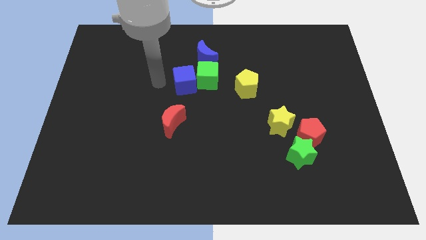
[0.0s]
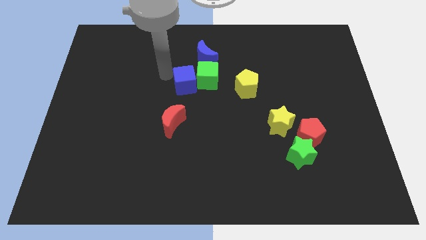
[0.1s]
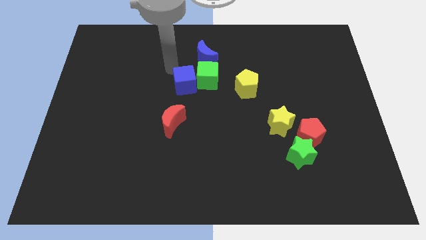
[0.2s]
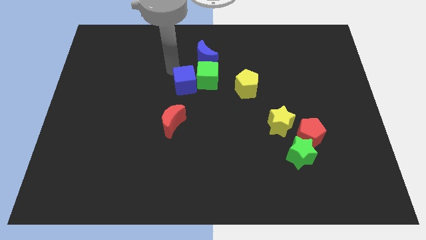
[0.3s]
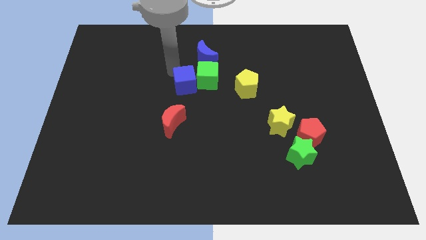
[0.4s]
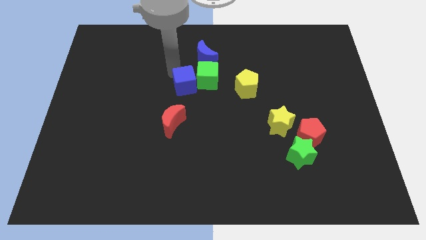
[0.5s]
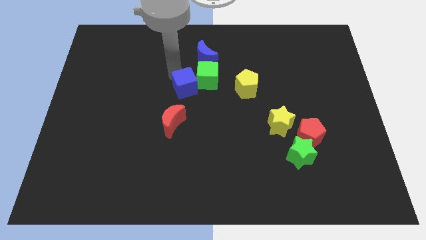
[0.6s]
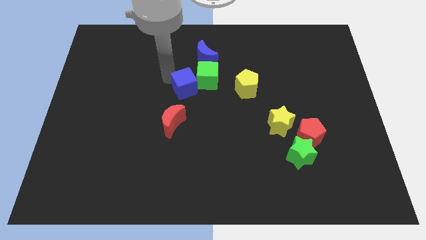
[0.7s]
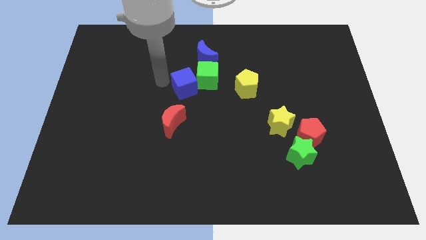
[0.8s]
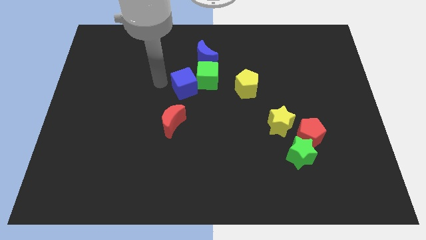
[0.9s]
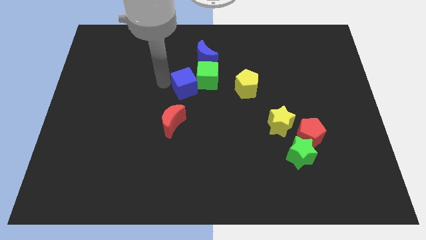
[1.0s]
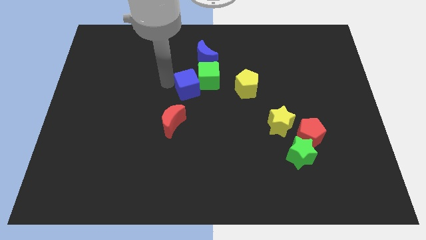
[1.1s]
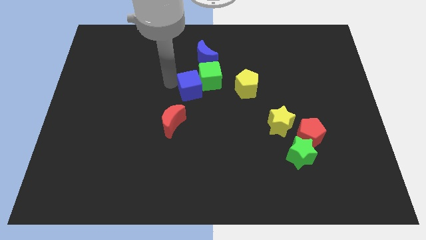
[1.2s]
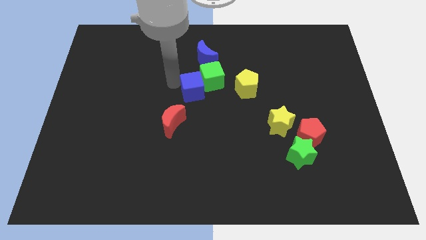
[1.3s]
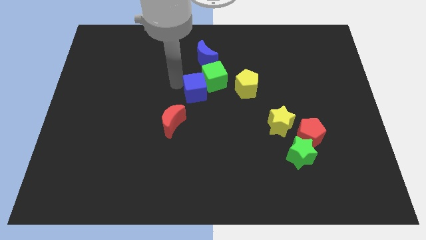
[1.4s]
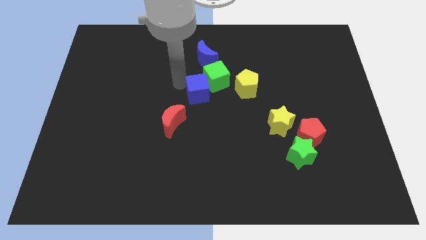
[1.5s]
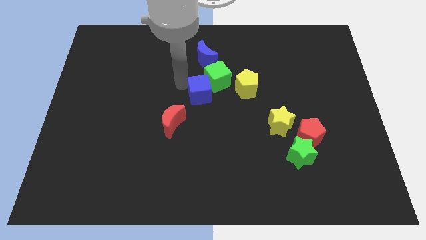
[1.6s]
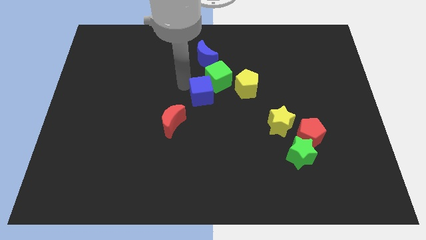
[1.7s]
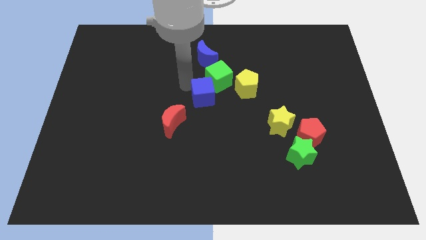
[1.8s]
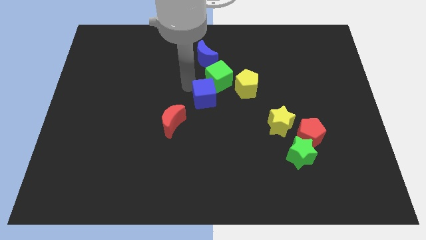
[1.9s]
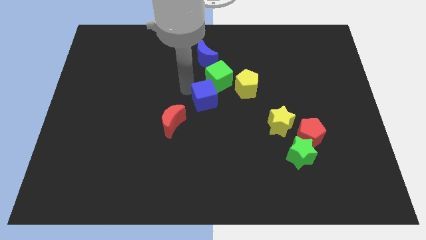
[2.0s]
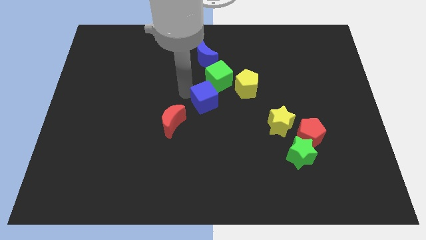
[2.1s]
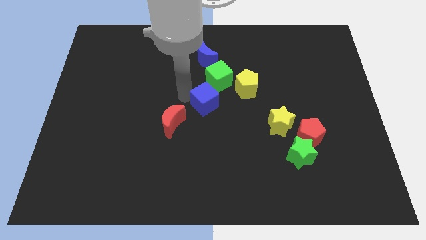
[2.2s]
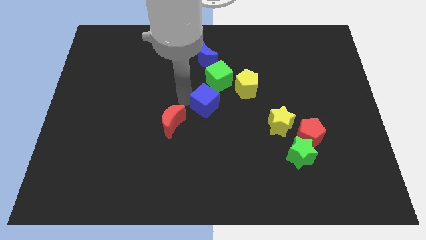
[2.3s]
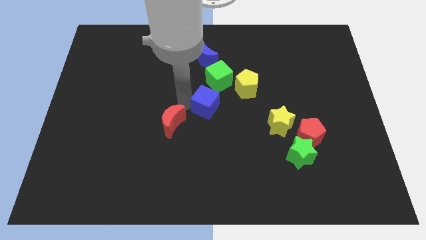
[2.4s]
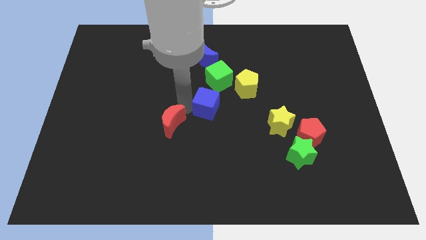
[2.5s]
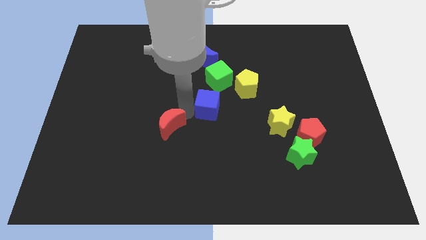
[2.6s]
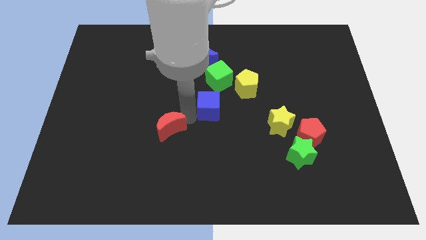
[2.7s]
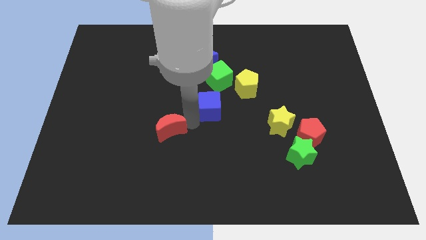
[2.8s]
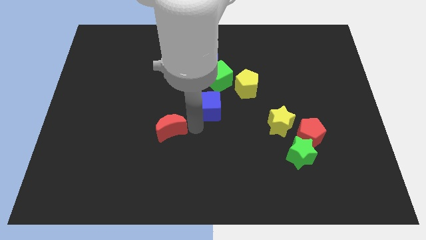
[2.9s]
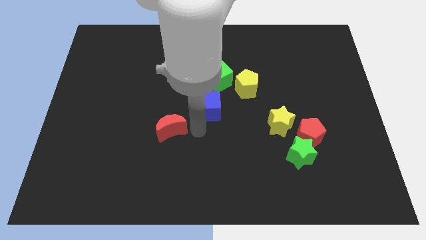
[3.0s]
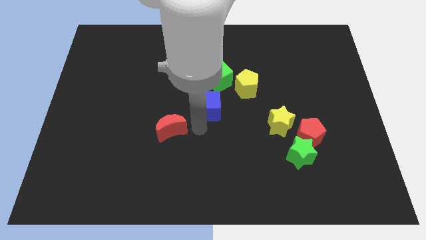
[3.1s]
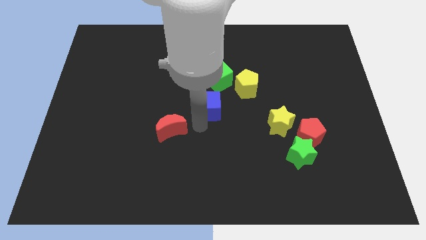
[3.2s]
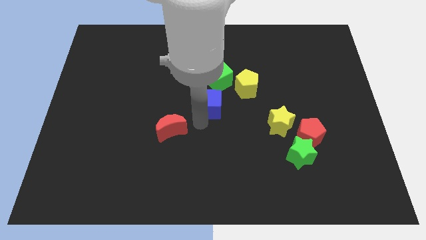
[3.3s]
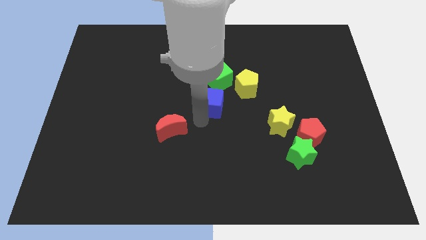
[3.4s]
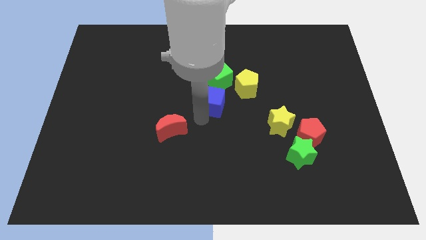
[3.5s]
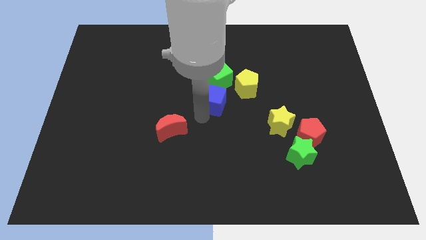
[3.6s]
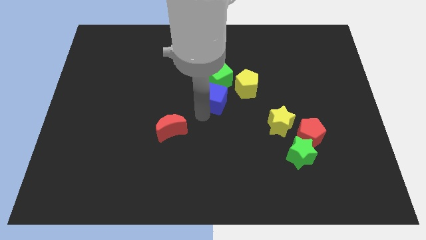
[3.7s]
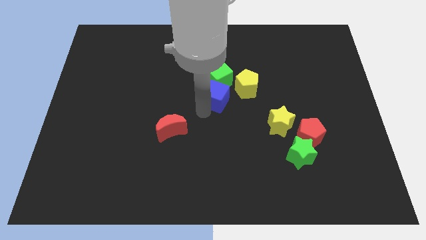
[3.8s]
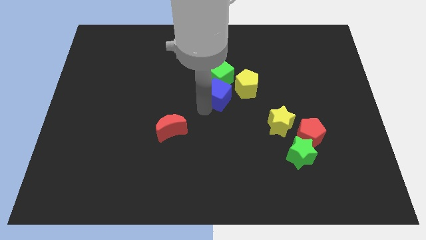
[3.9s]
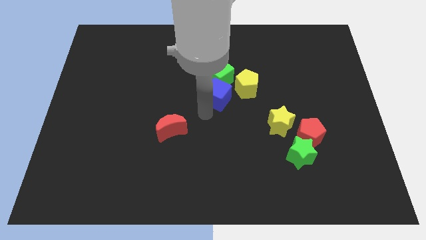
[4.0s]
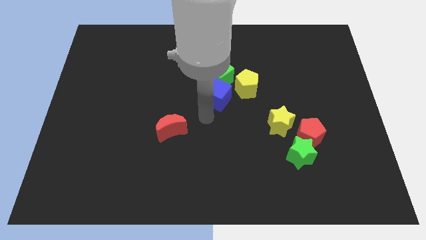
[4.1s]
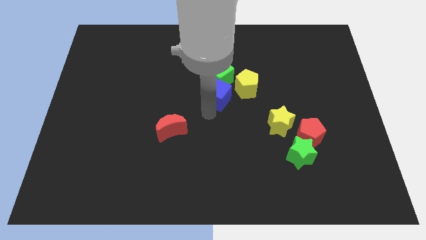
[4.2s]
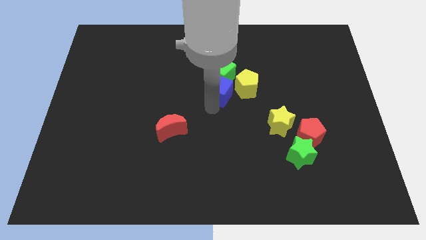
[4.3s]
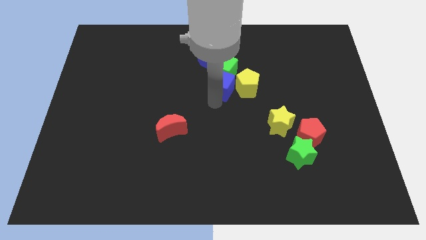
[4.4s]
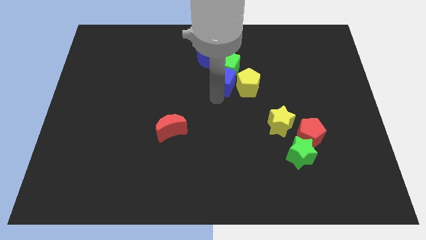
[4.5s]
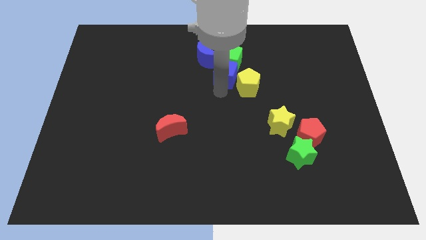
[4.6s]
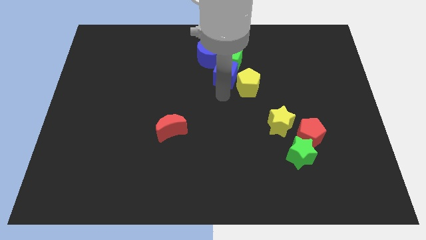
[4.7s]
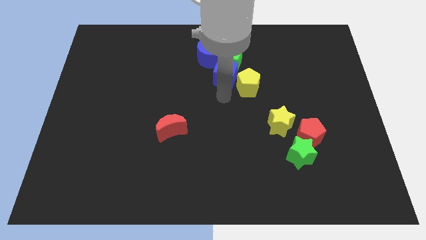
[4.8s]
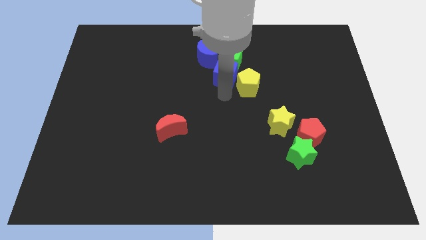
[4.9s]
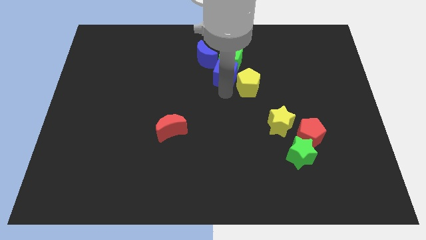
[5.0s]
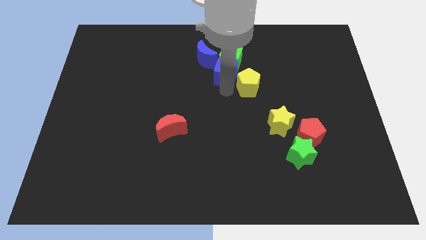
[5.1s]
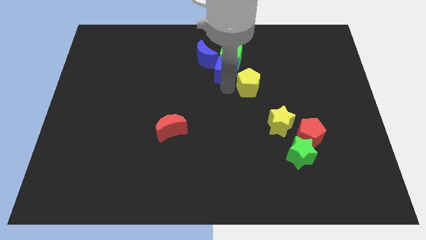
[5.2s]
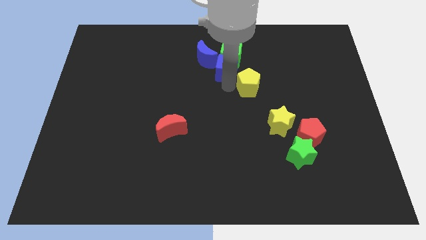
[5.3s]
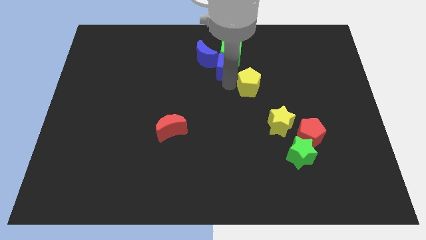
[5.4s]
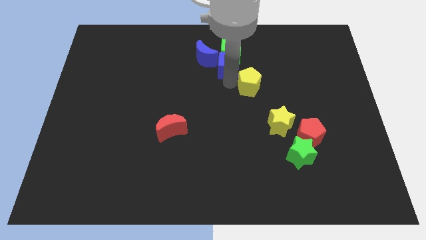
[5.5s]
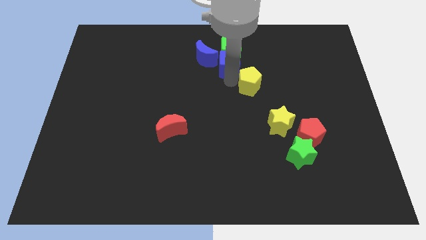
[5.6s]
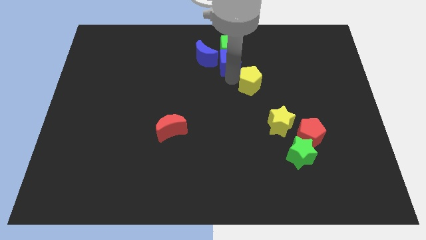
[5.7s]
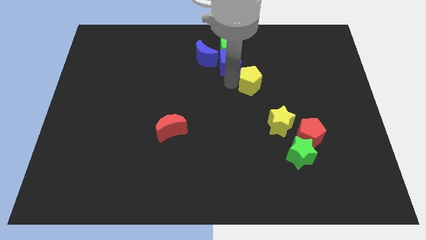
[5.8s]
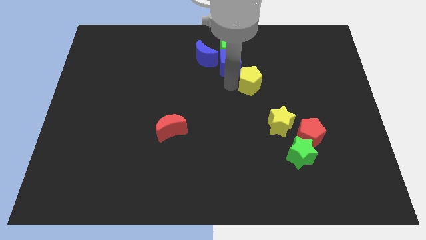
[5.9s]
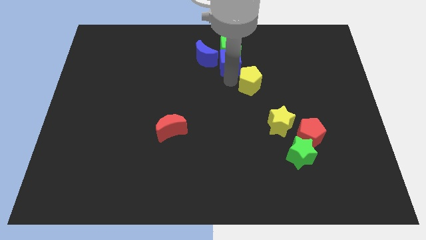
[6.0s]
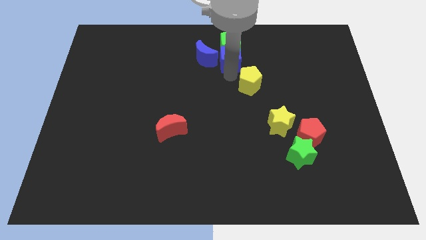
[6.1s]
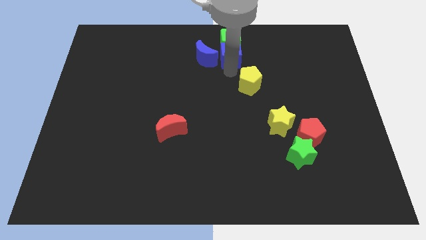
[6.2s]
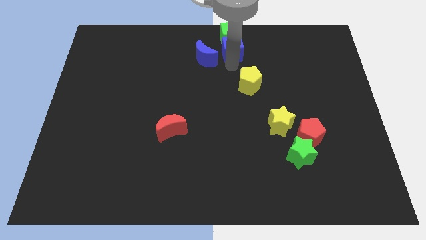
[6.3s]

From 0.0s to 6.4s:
push the blue cube to the top side

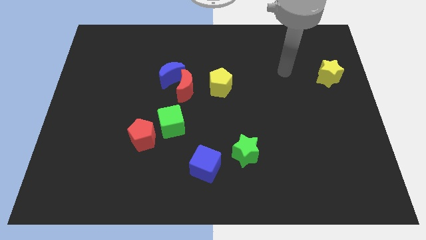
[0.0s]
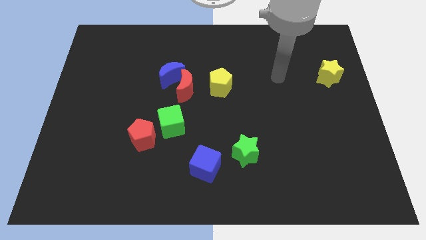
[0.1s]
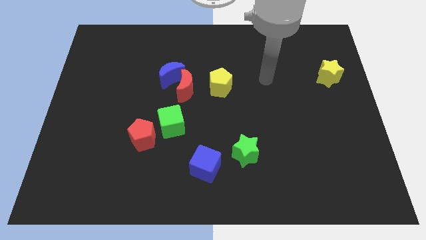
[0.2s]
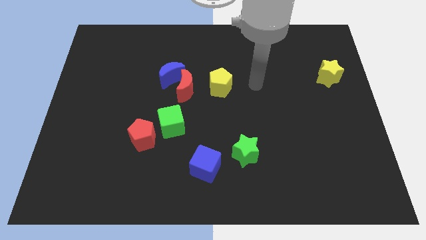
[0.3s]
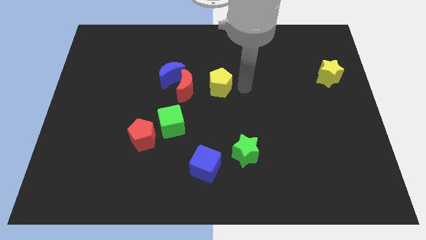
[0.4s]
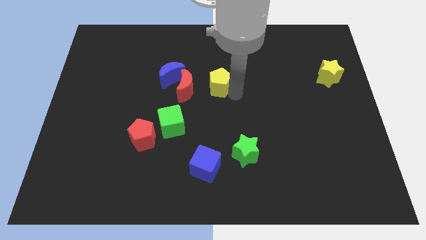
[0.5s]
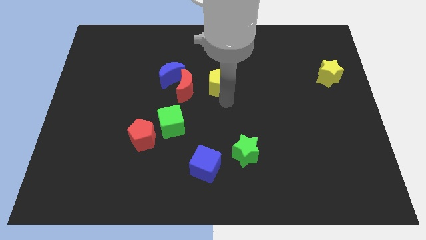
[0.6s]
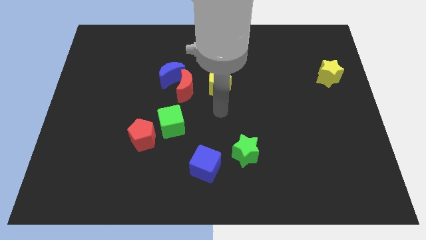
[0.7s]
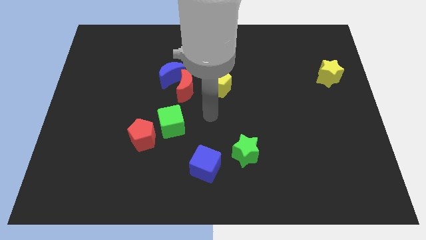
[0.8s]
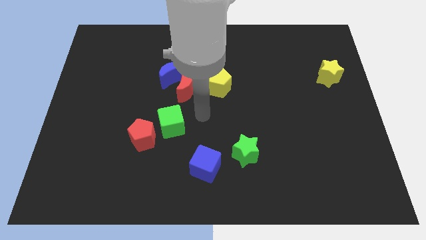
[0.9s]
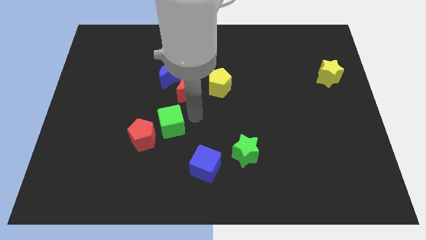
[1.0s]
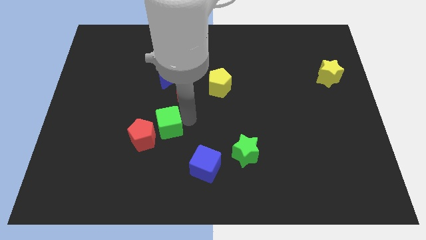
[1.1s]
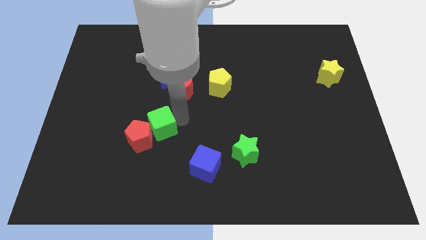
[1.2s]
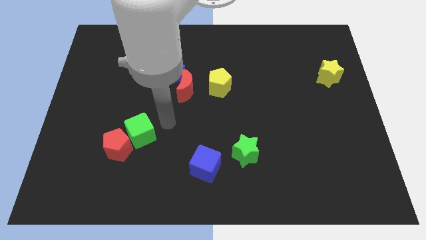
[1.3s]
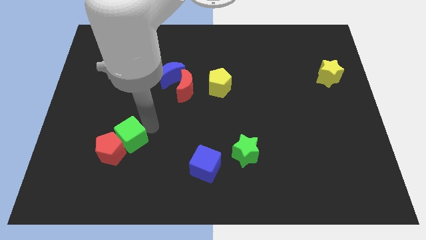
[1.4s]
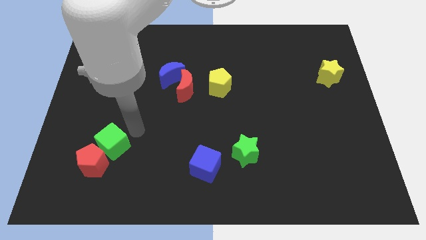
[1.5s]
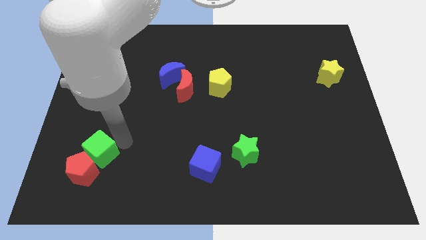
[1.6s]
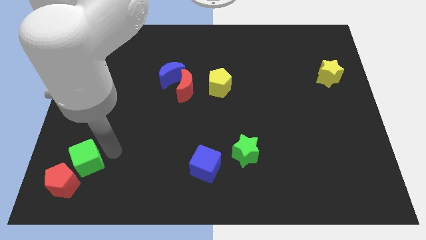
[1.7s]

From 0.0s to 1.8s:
put the red pentagon to the bottom left
